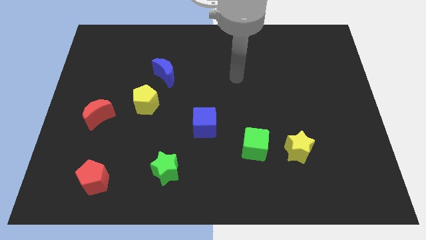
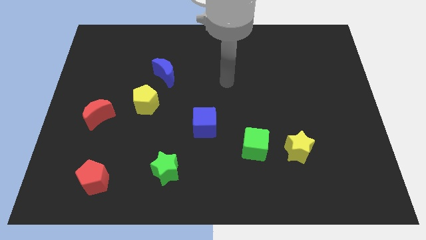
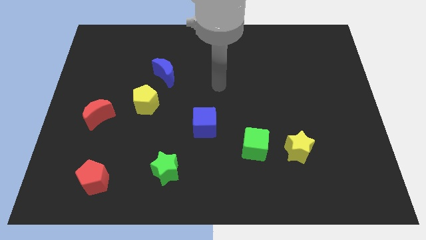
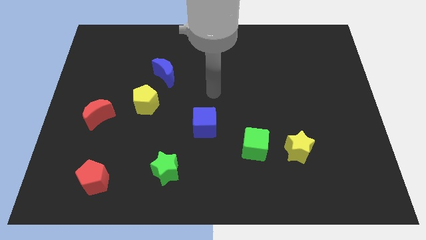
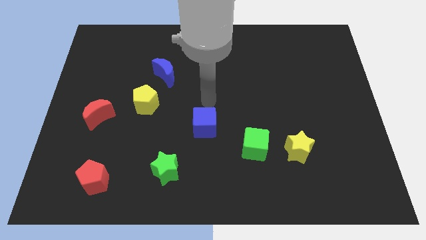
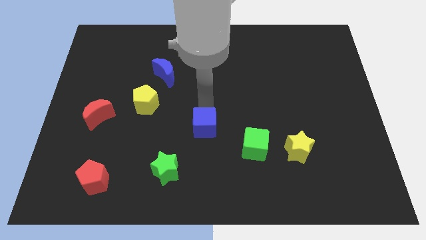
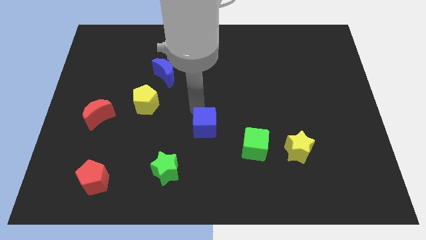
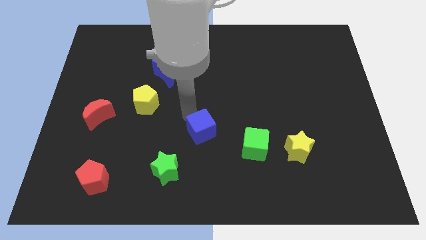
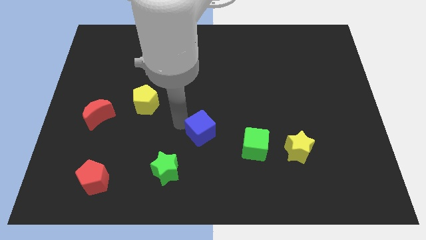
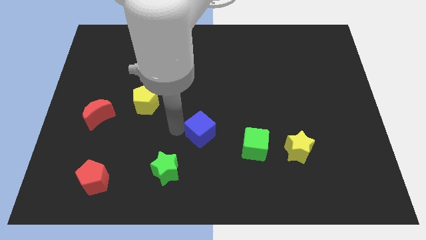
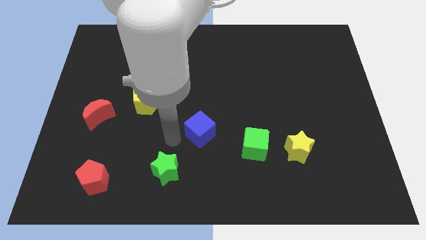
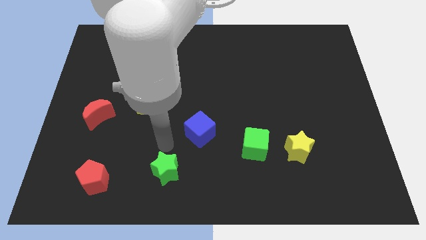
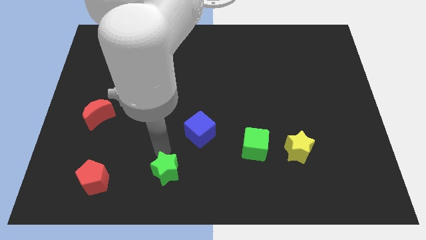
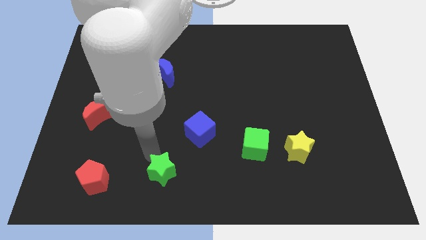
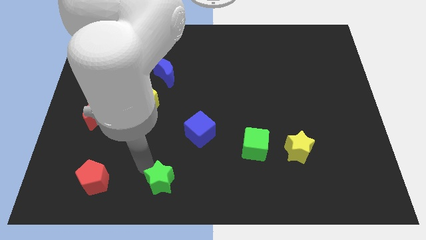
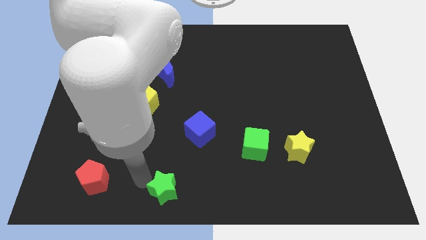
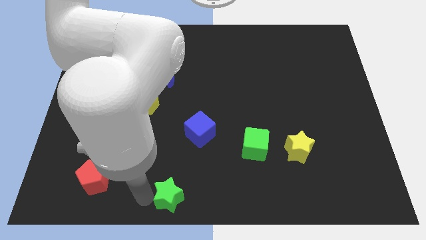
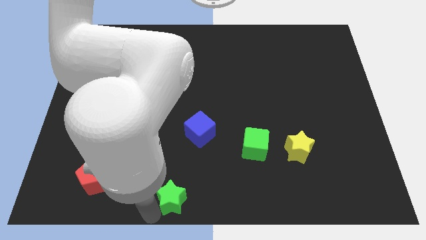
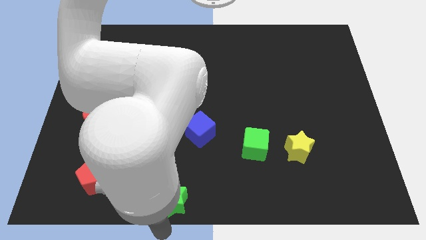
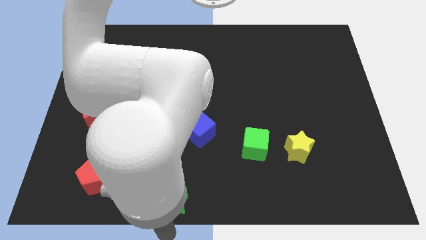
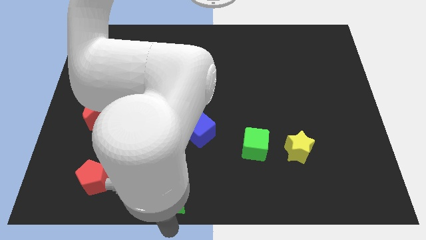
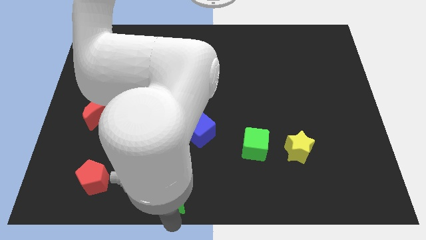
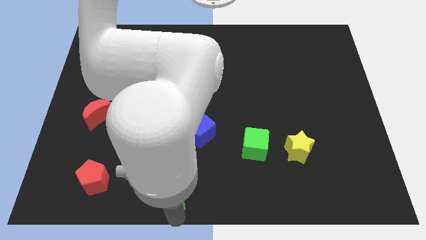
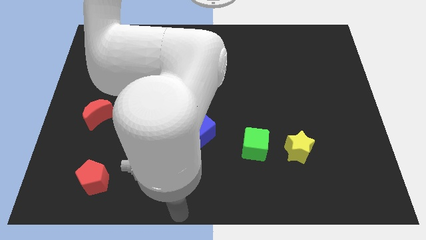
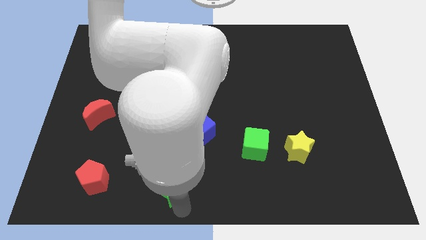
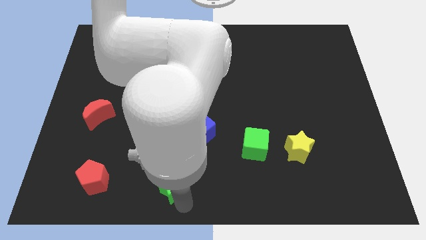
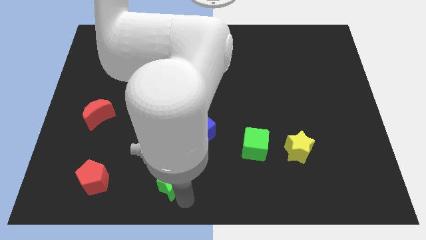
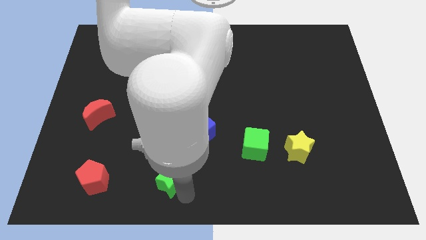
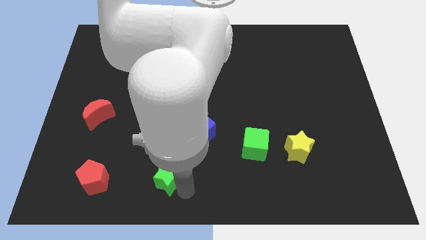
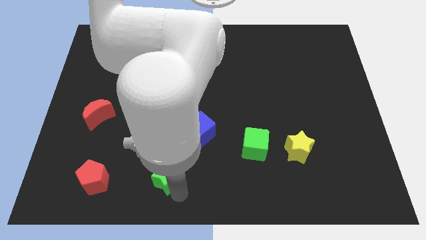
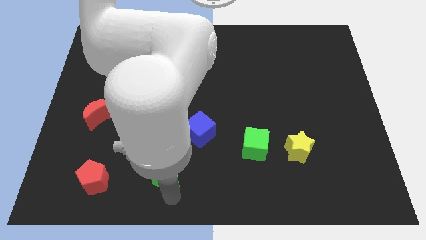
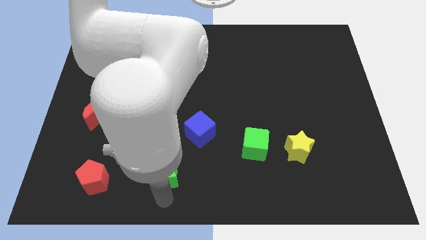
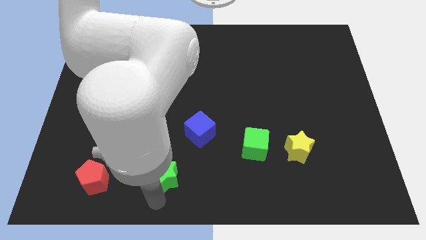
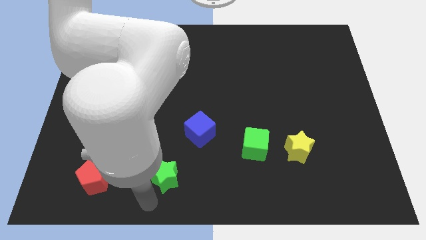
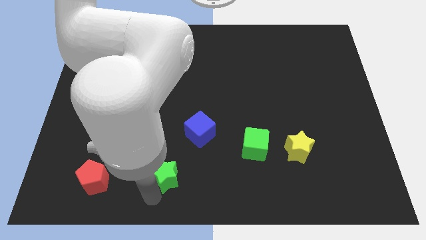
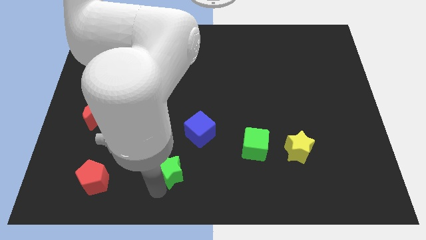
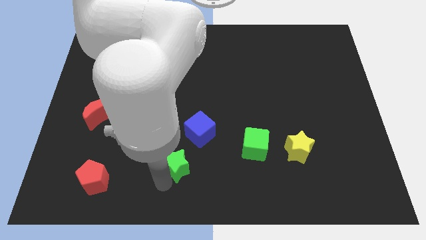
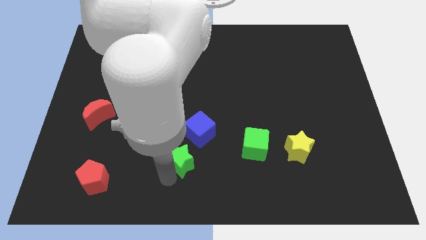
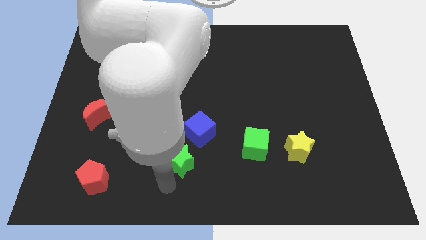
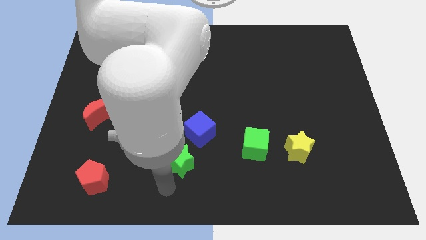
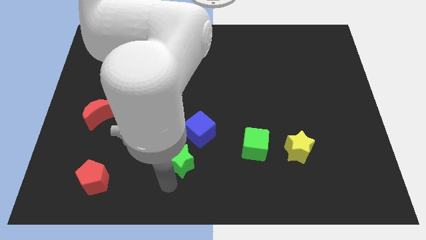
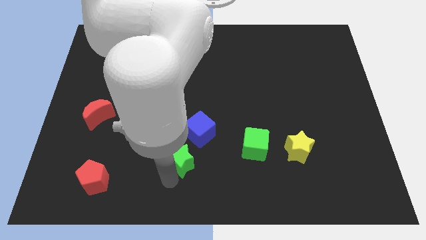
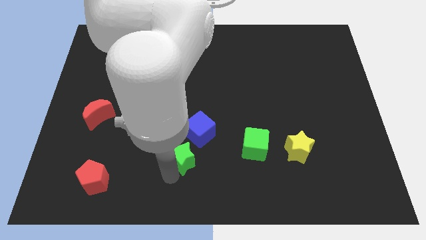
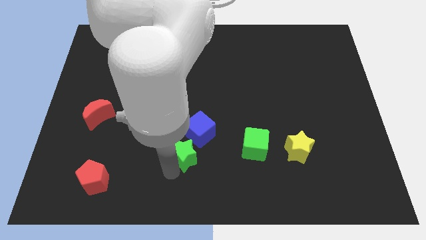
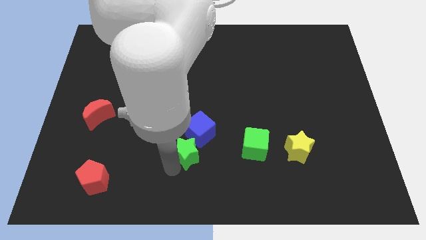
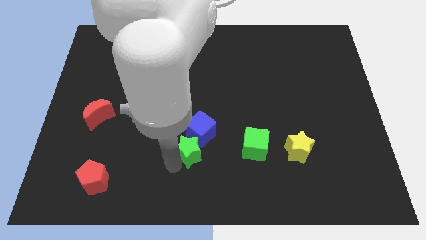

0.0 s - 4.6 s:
put the green star towards the blue cube

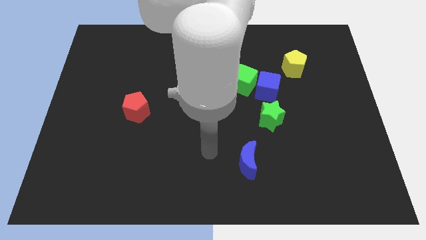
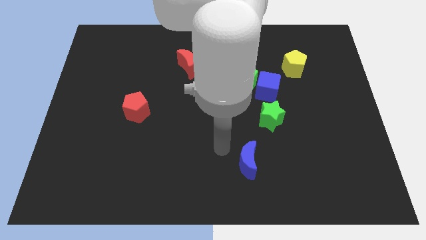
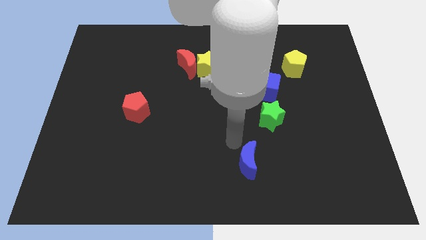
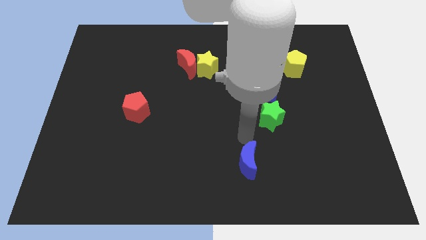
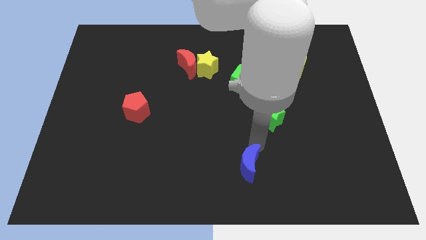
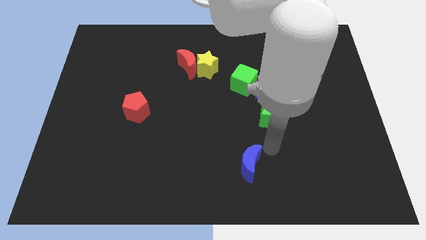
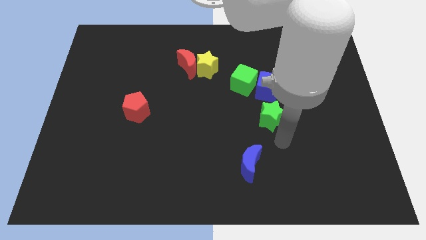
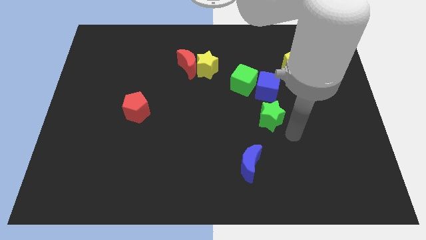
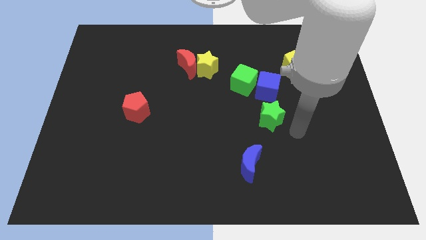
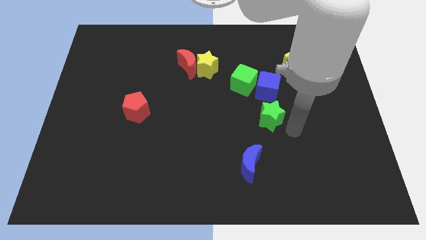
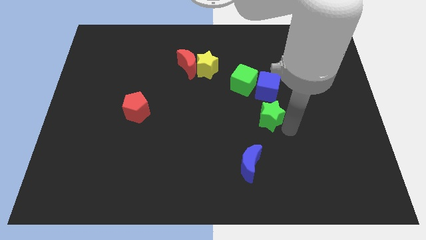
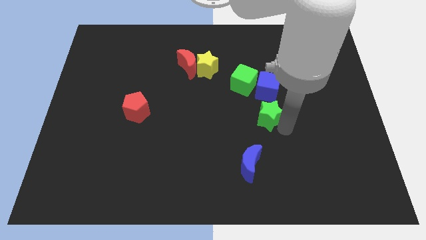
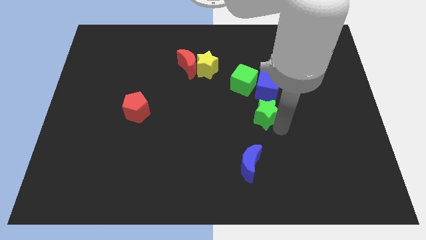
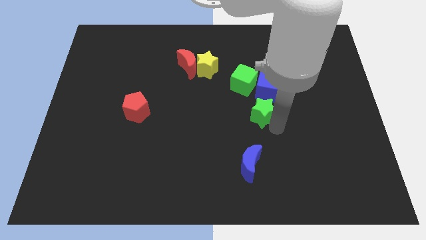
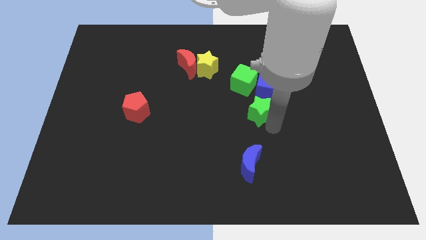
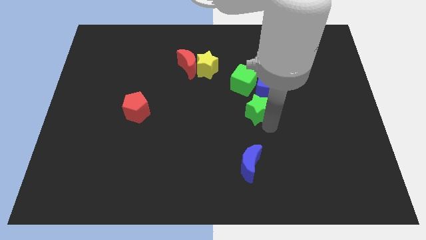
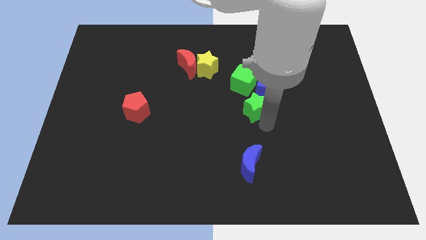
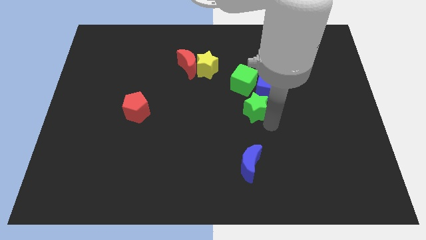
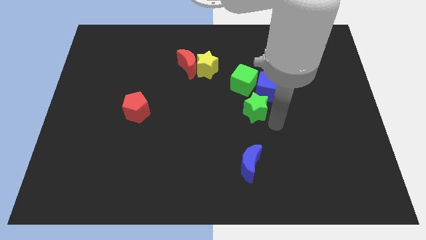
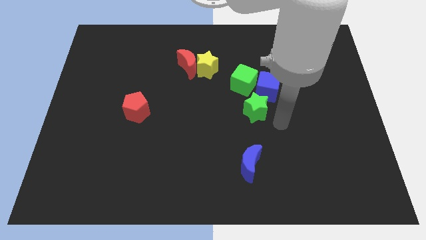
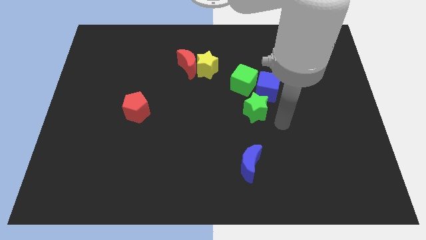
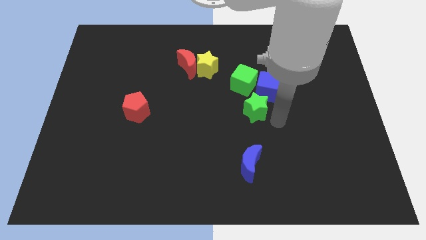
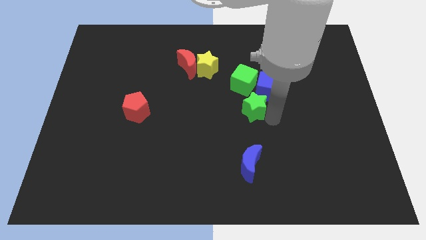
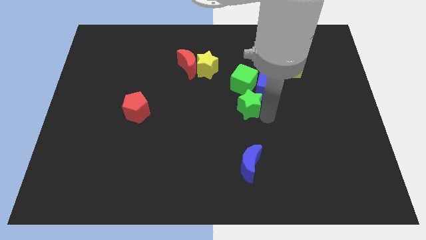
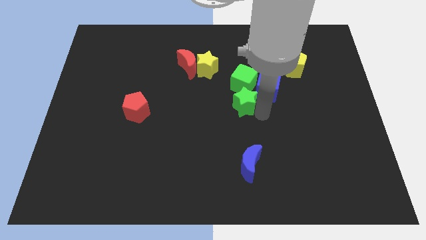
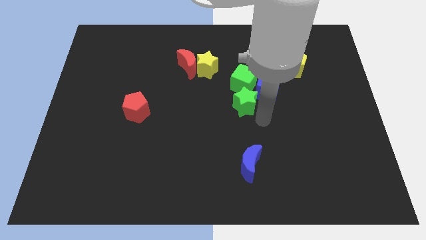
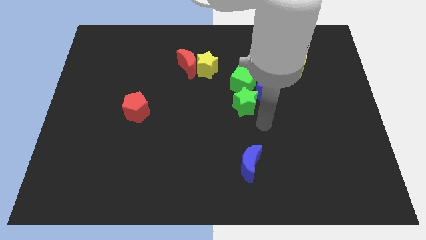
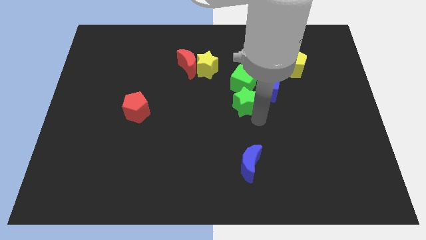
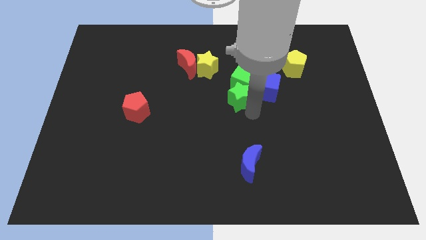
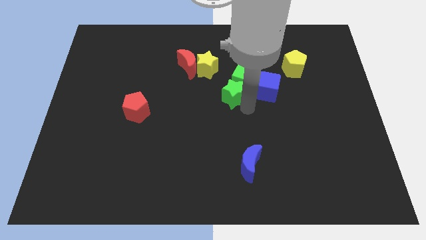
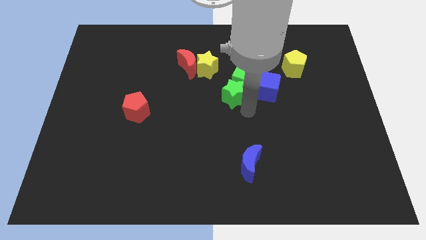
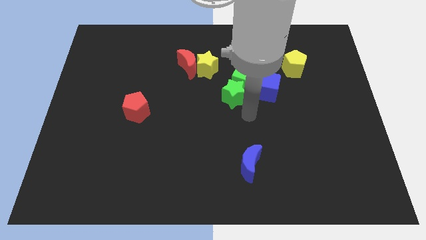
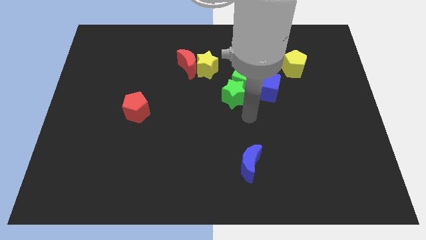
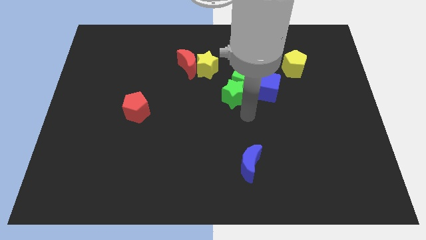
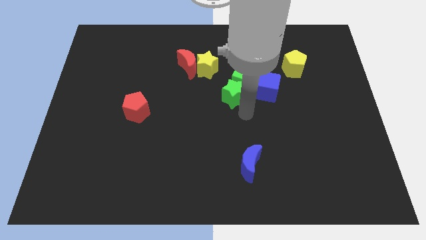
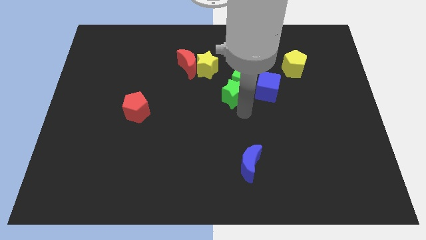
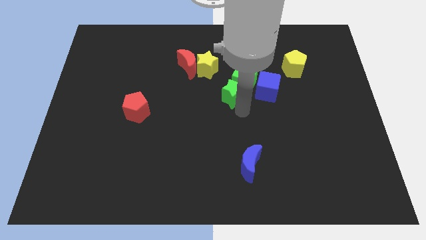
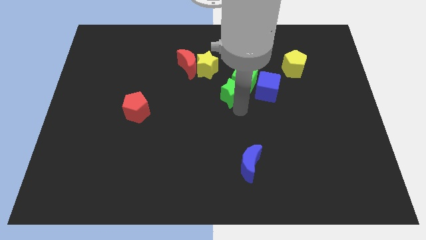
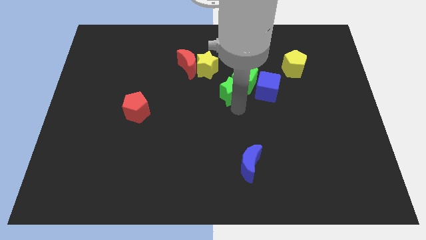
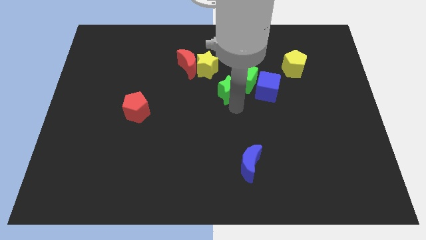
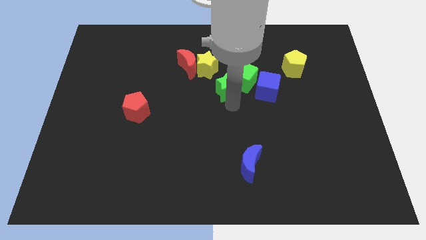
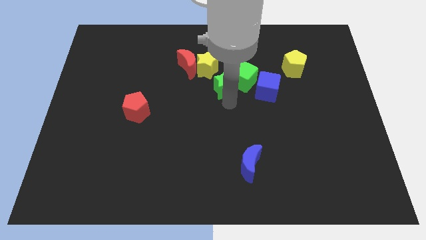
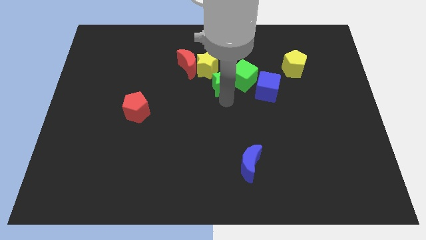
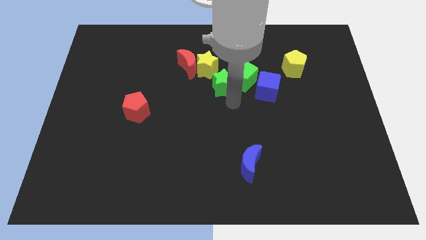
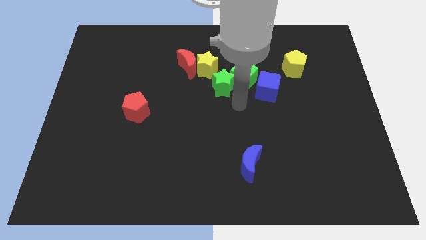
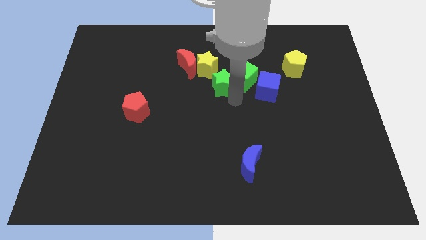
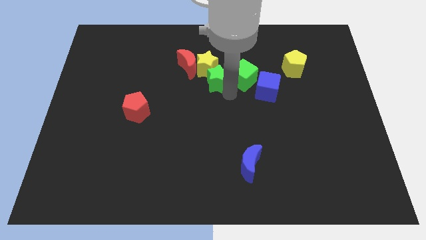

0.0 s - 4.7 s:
put the green star to the yellow star
